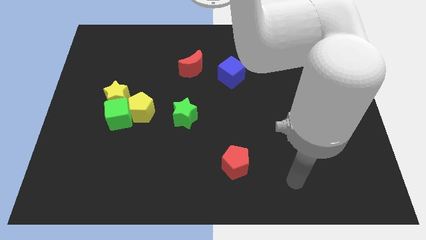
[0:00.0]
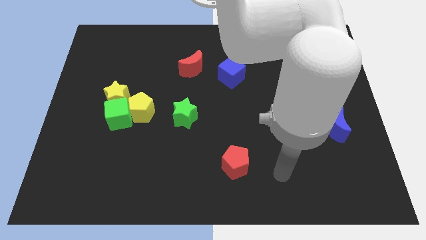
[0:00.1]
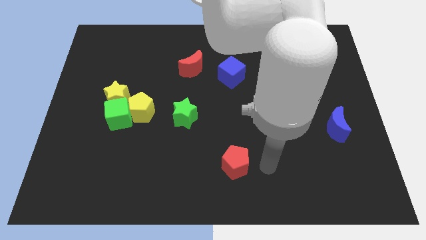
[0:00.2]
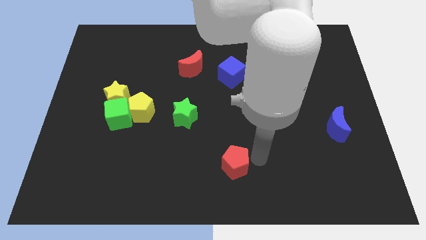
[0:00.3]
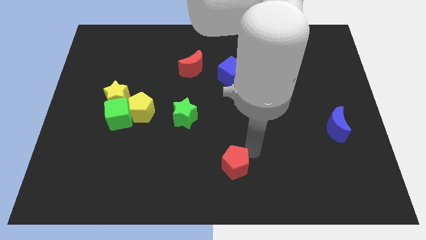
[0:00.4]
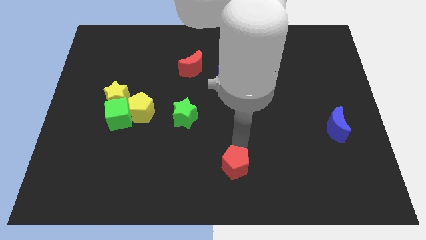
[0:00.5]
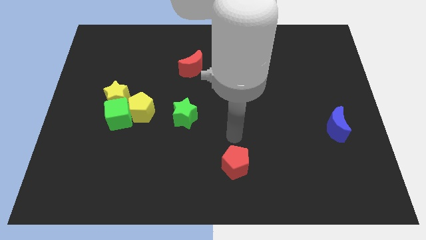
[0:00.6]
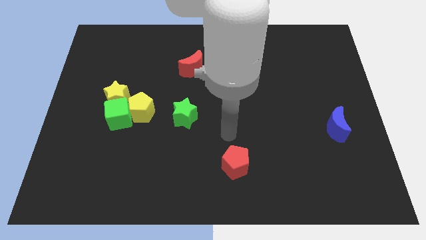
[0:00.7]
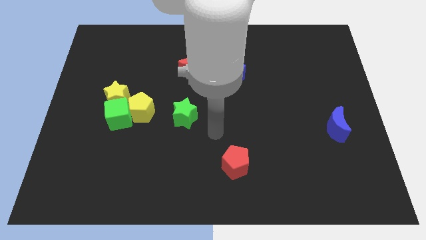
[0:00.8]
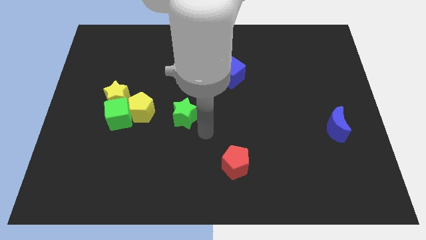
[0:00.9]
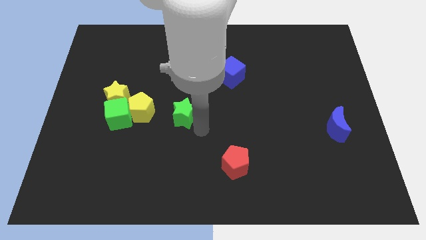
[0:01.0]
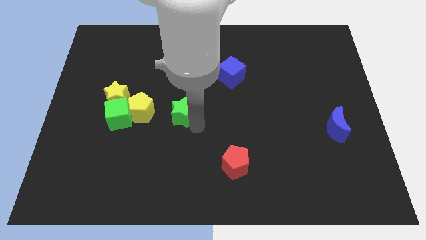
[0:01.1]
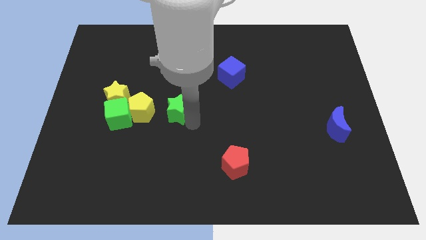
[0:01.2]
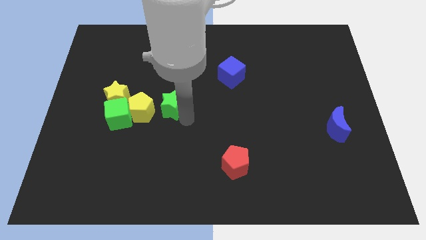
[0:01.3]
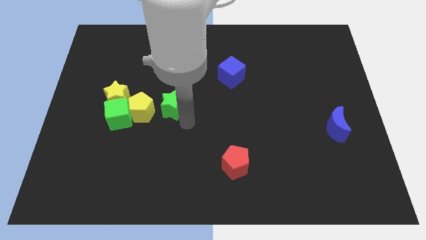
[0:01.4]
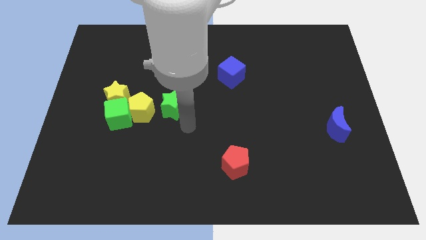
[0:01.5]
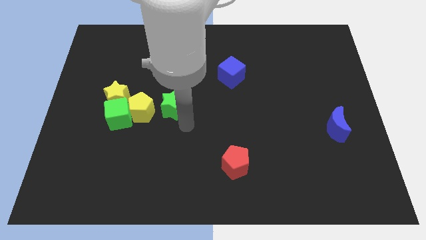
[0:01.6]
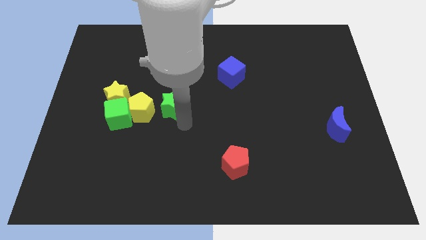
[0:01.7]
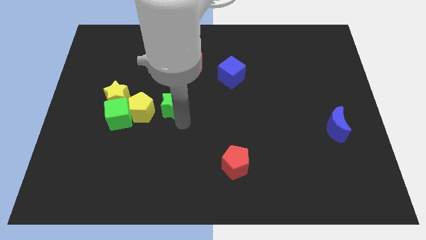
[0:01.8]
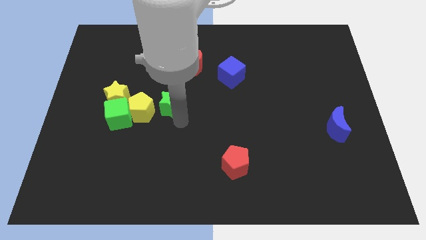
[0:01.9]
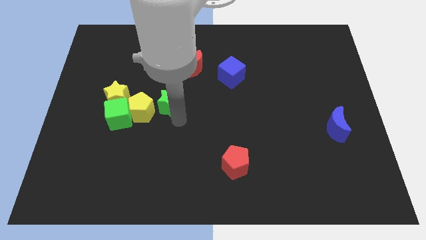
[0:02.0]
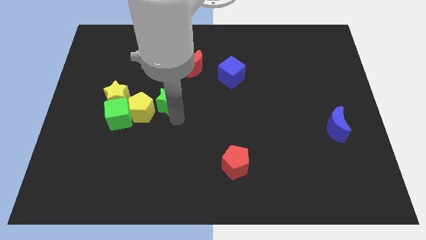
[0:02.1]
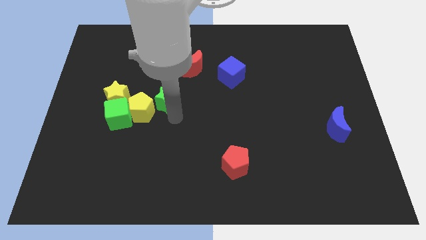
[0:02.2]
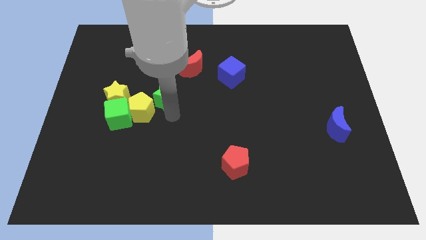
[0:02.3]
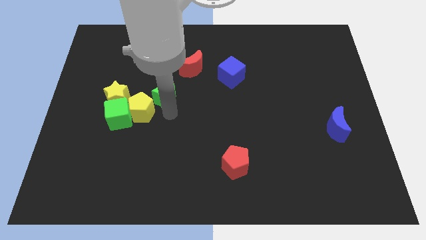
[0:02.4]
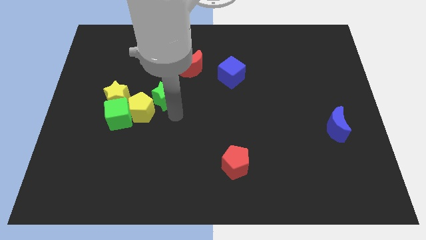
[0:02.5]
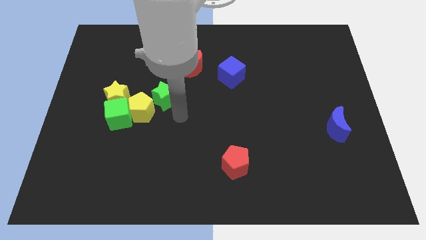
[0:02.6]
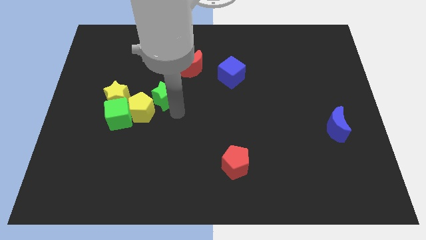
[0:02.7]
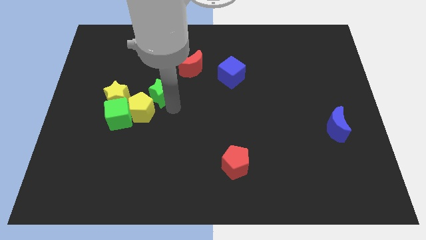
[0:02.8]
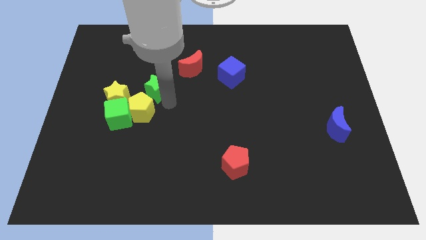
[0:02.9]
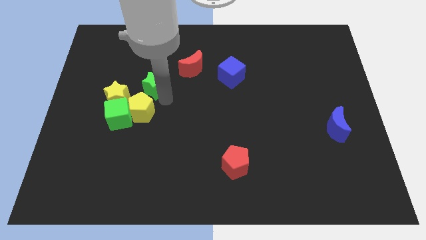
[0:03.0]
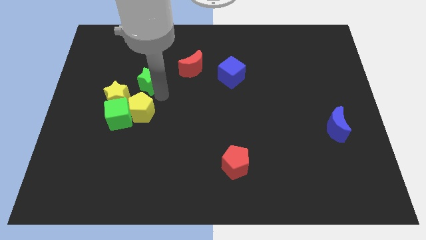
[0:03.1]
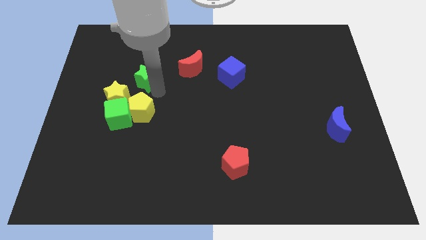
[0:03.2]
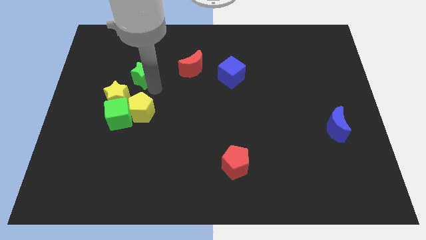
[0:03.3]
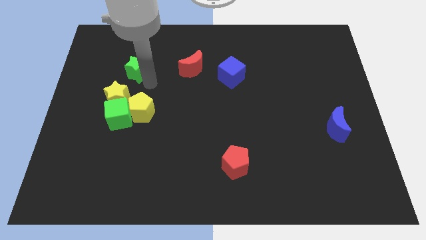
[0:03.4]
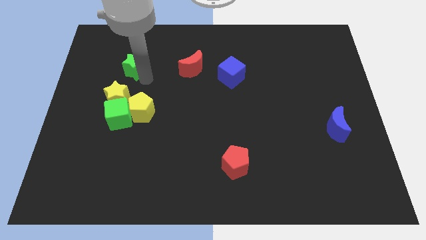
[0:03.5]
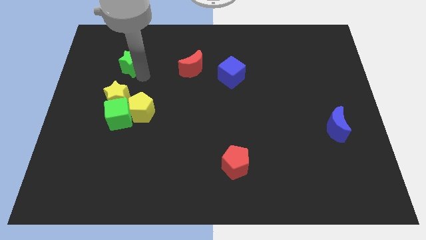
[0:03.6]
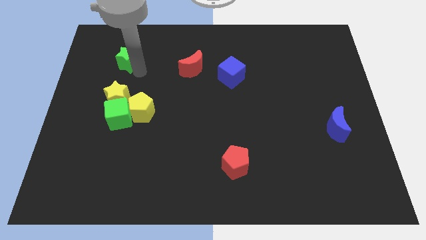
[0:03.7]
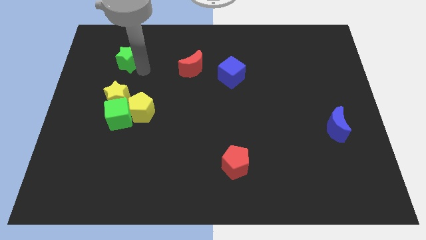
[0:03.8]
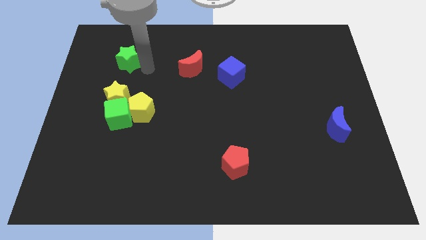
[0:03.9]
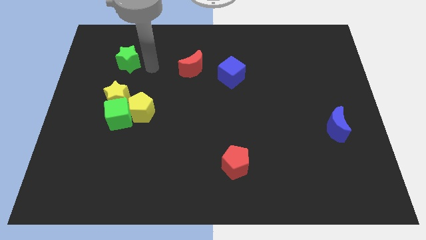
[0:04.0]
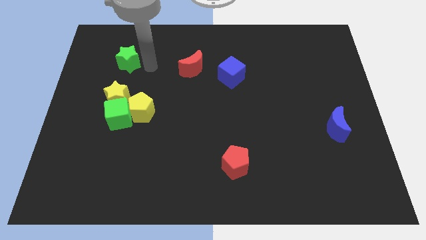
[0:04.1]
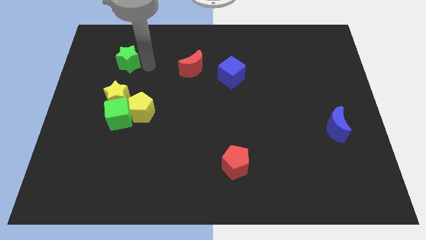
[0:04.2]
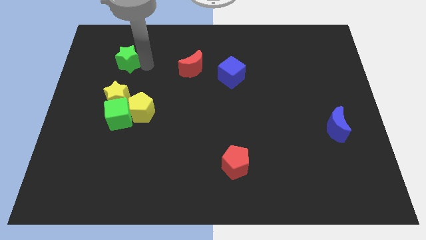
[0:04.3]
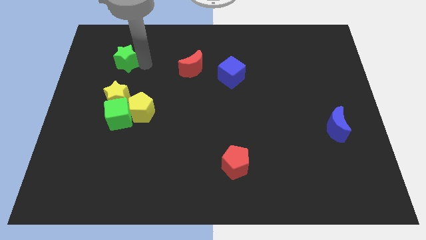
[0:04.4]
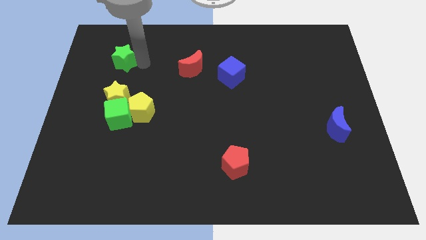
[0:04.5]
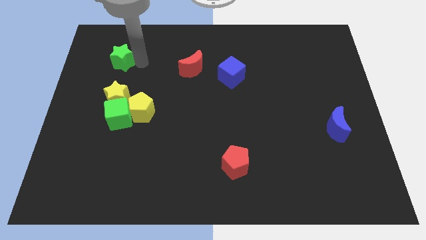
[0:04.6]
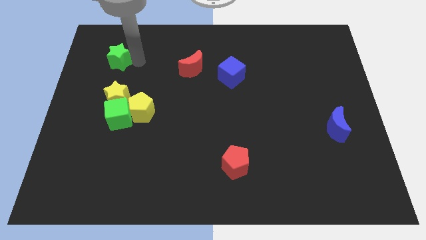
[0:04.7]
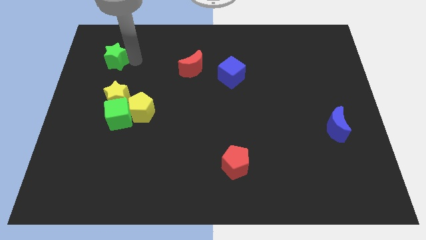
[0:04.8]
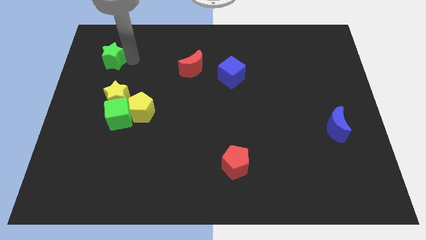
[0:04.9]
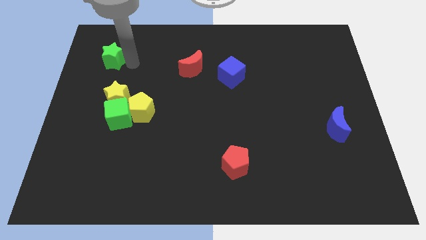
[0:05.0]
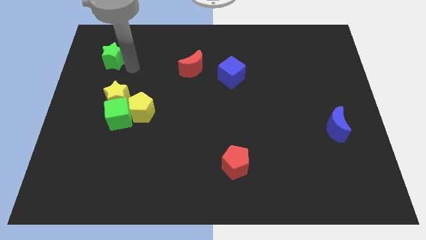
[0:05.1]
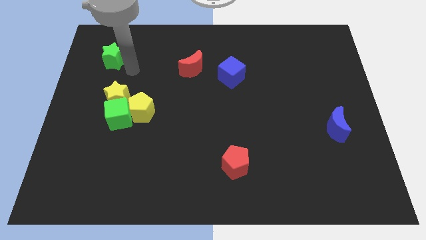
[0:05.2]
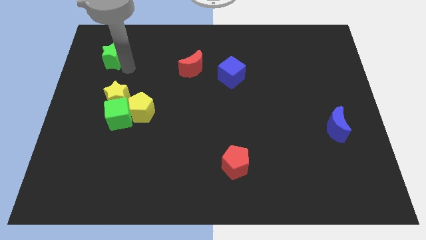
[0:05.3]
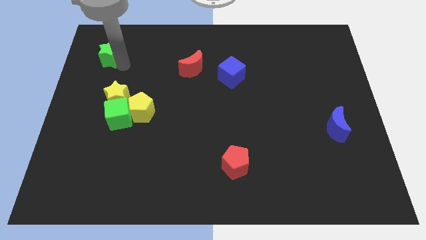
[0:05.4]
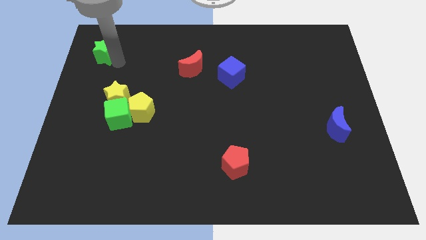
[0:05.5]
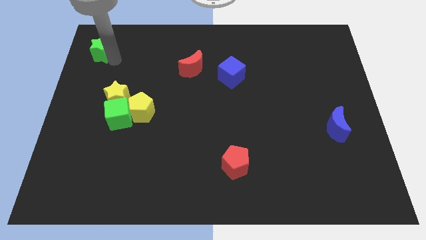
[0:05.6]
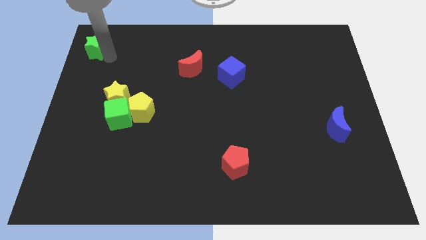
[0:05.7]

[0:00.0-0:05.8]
put the green star to the top left of the board
